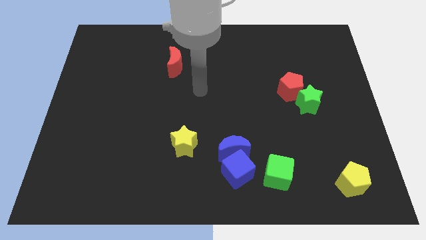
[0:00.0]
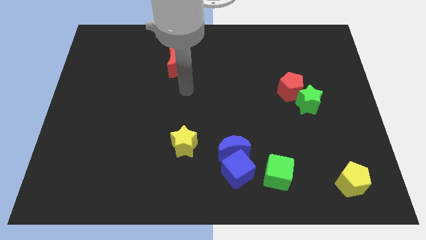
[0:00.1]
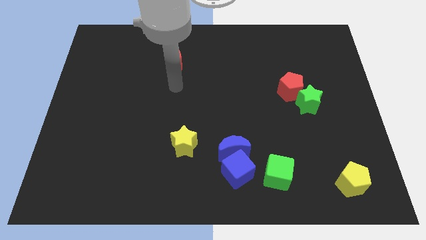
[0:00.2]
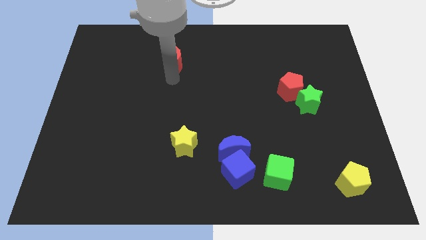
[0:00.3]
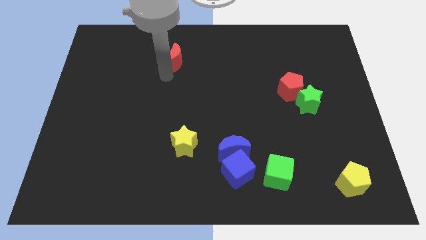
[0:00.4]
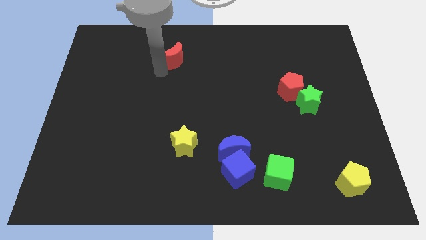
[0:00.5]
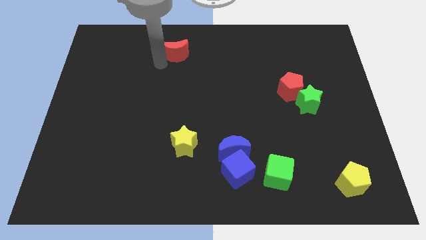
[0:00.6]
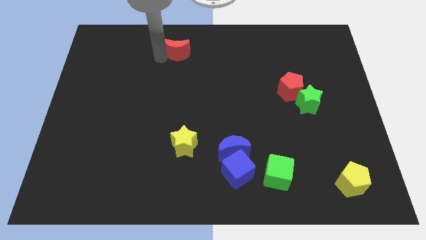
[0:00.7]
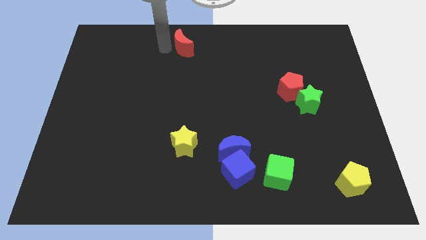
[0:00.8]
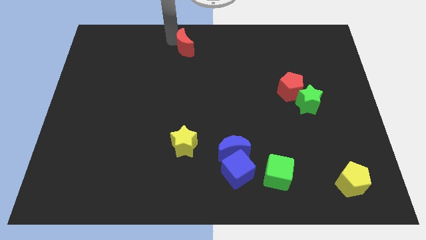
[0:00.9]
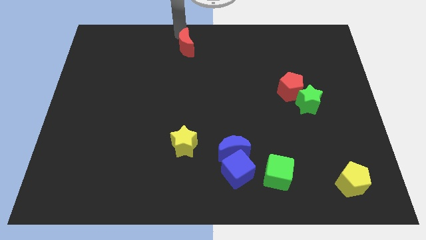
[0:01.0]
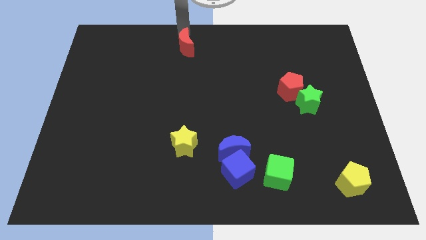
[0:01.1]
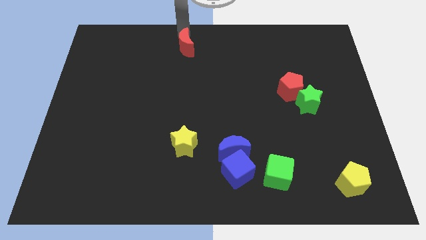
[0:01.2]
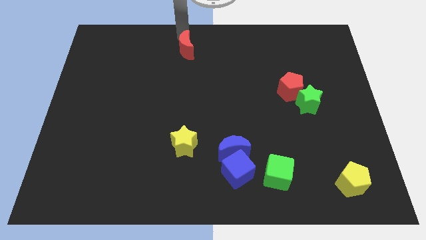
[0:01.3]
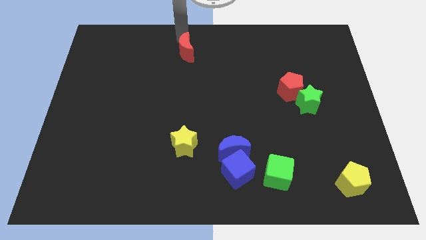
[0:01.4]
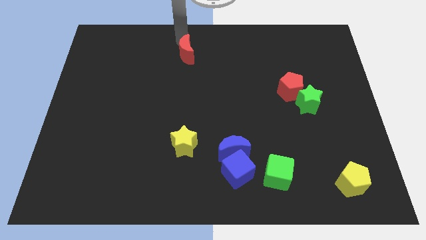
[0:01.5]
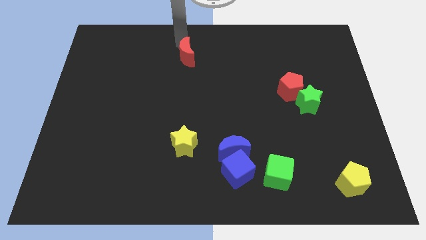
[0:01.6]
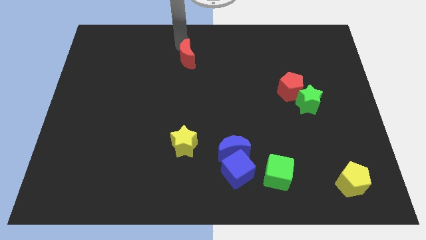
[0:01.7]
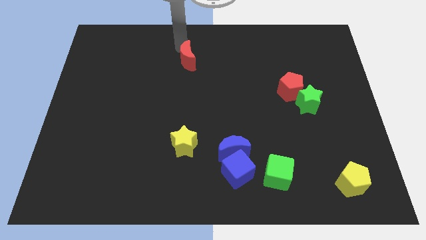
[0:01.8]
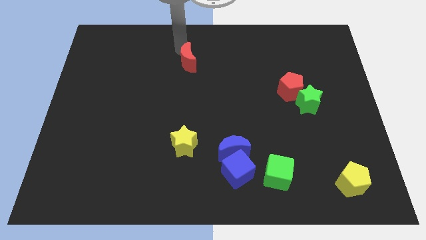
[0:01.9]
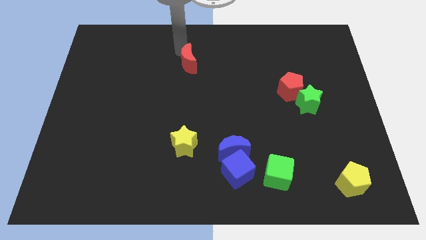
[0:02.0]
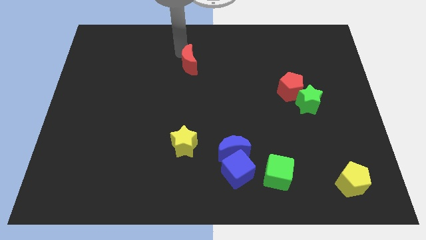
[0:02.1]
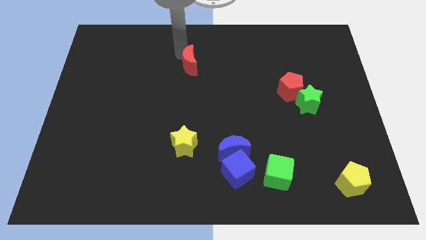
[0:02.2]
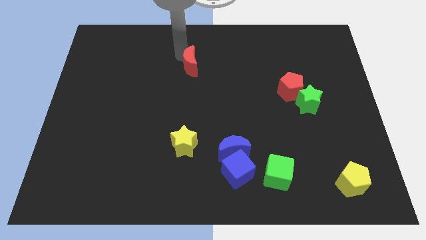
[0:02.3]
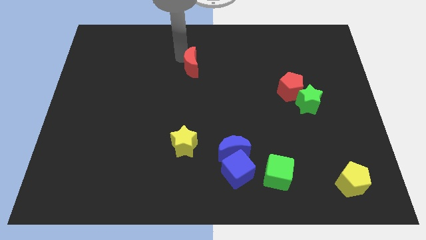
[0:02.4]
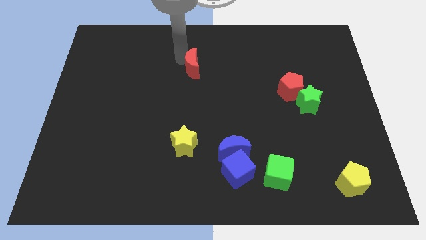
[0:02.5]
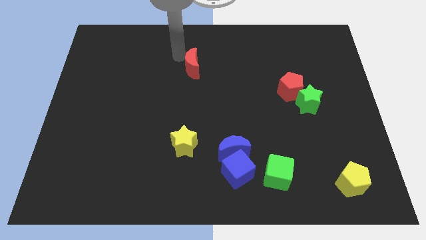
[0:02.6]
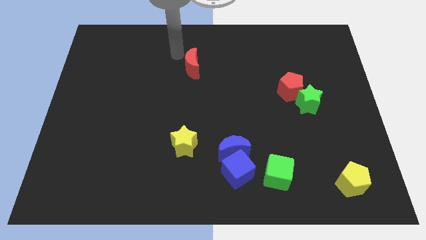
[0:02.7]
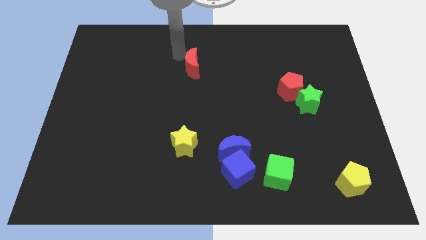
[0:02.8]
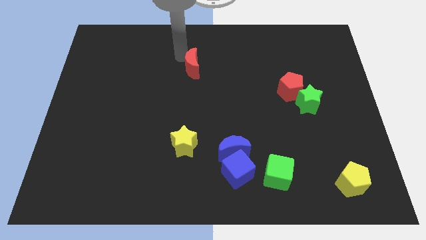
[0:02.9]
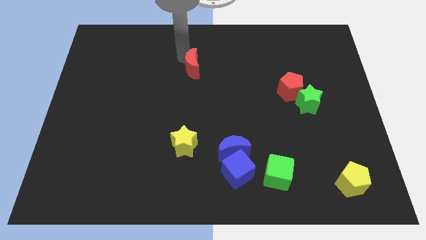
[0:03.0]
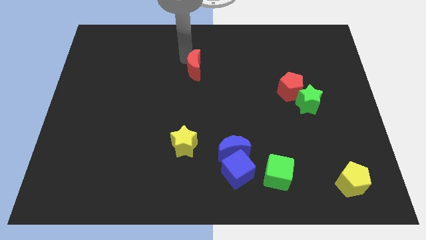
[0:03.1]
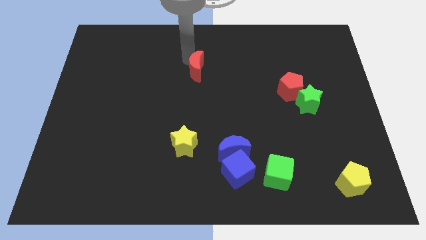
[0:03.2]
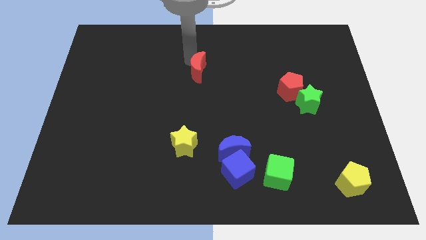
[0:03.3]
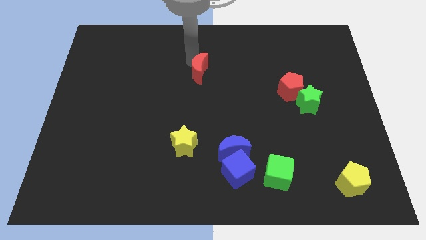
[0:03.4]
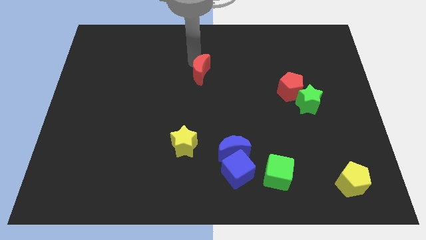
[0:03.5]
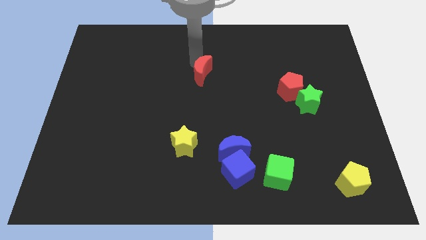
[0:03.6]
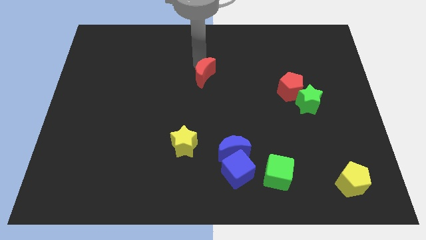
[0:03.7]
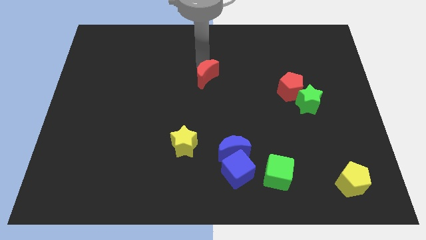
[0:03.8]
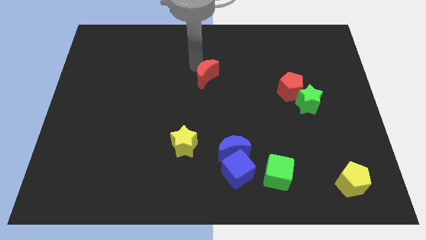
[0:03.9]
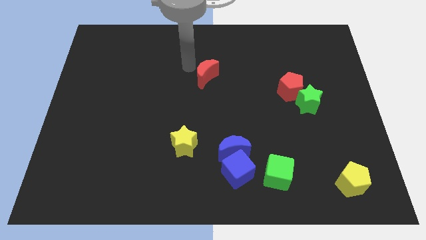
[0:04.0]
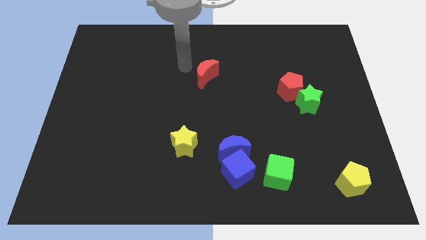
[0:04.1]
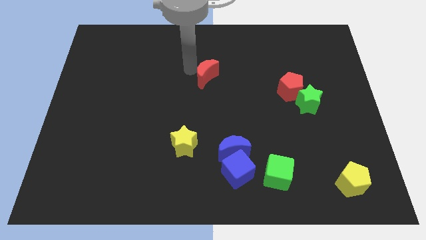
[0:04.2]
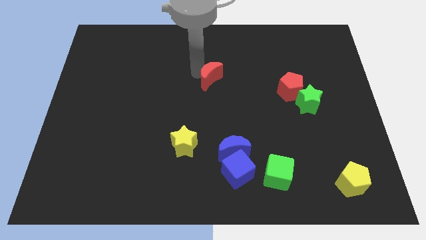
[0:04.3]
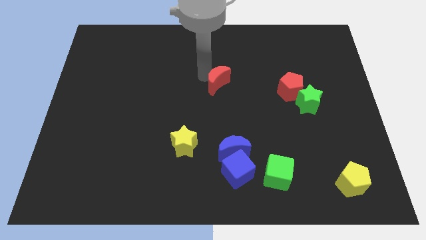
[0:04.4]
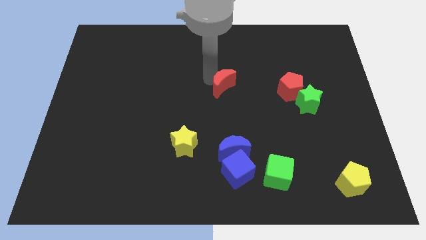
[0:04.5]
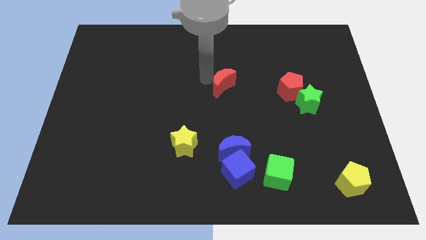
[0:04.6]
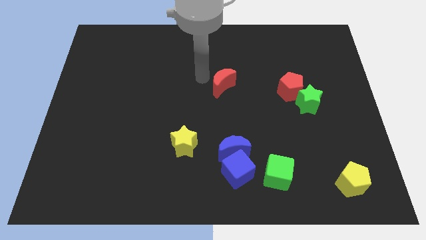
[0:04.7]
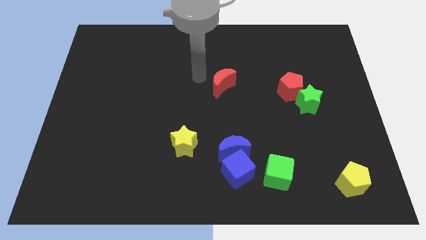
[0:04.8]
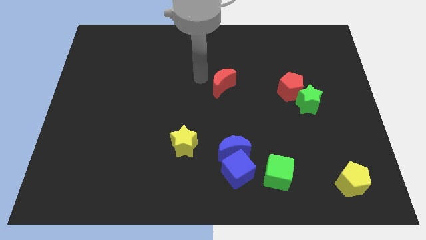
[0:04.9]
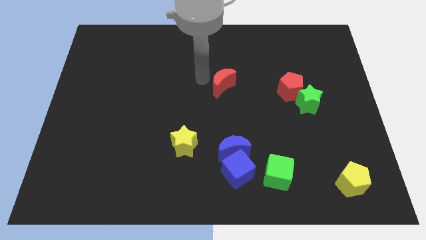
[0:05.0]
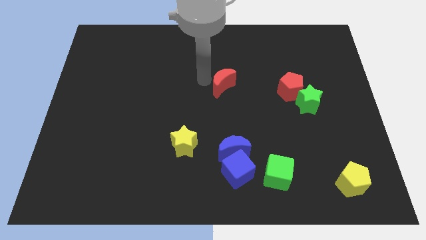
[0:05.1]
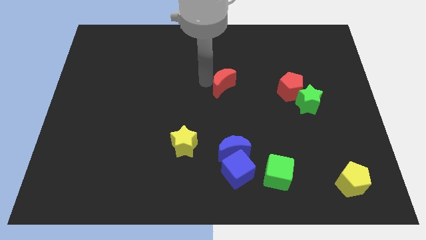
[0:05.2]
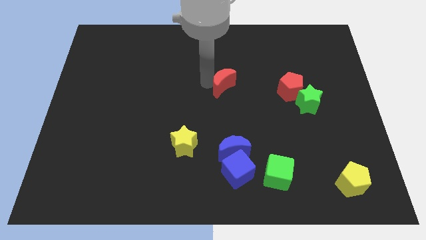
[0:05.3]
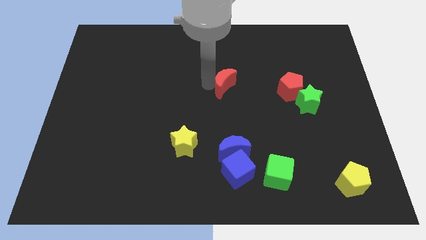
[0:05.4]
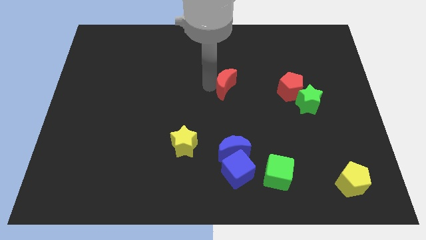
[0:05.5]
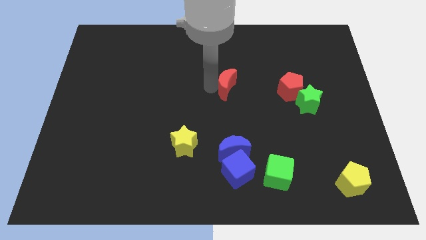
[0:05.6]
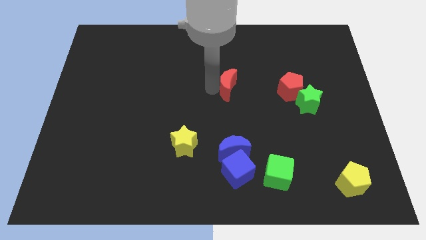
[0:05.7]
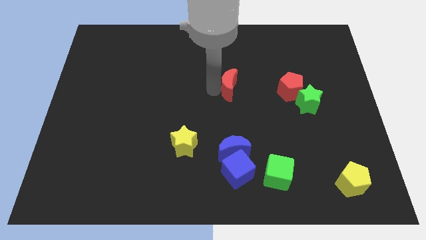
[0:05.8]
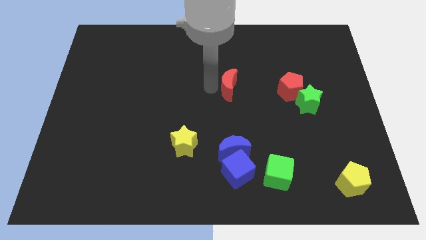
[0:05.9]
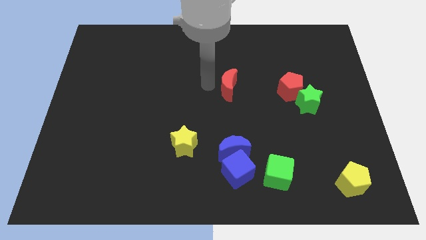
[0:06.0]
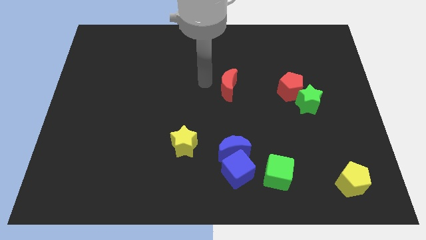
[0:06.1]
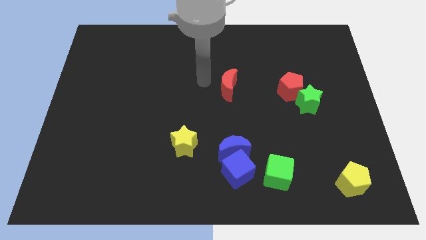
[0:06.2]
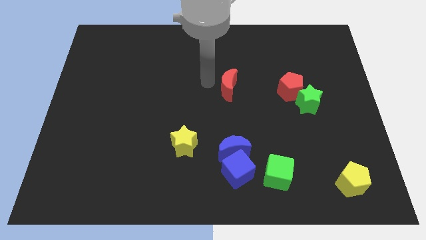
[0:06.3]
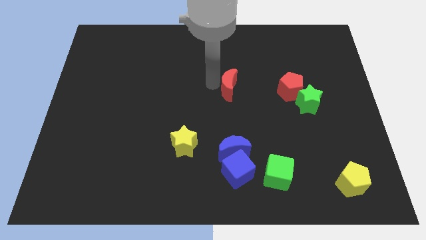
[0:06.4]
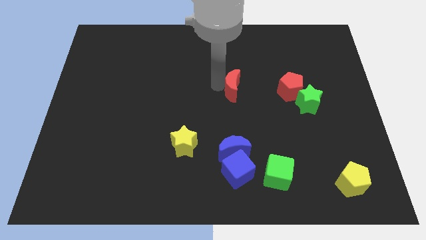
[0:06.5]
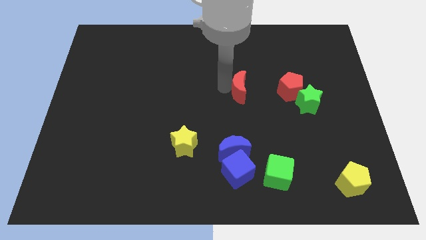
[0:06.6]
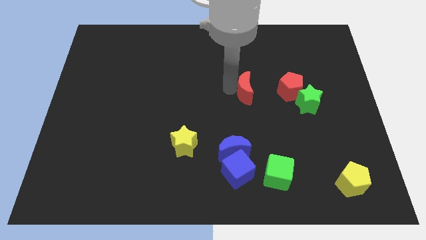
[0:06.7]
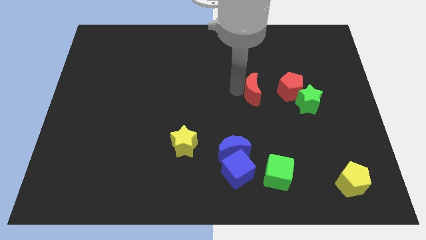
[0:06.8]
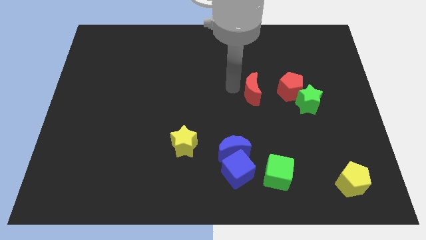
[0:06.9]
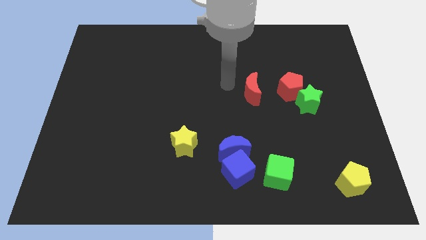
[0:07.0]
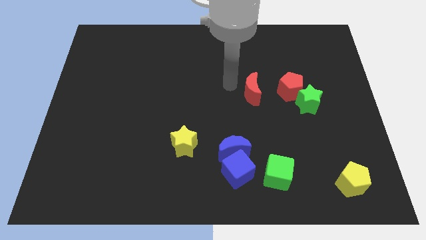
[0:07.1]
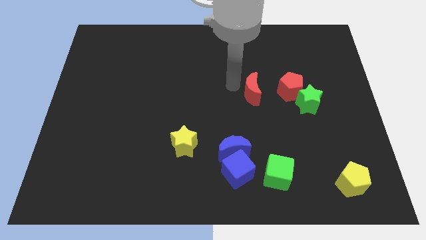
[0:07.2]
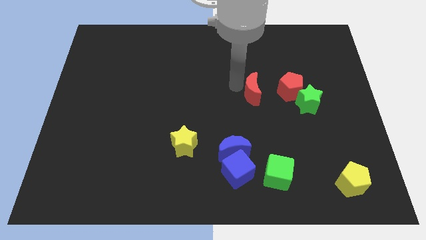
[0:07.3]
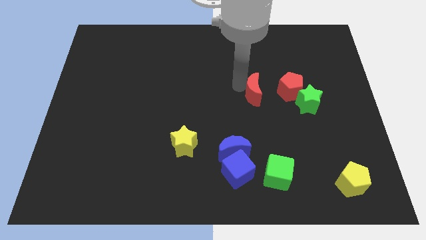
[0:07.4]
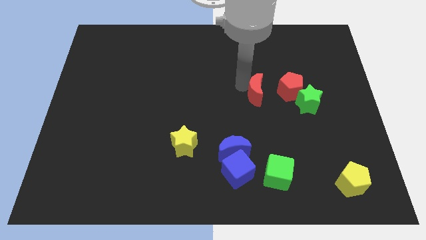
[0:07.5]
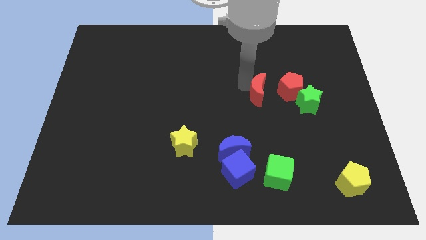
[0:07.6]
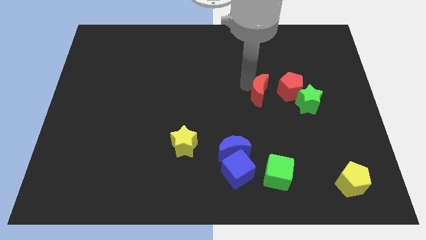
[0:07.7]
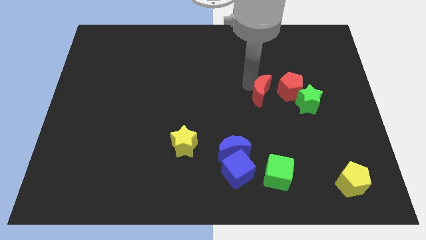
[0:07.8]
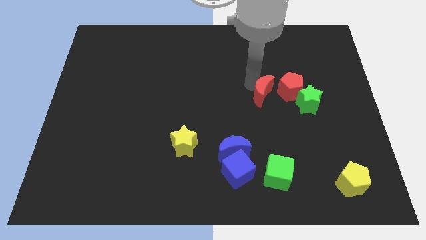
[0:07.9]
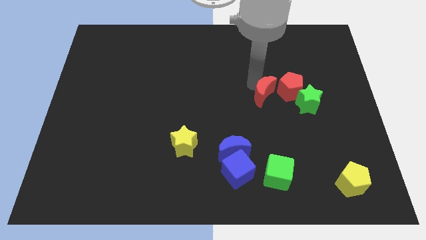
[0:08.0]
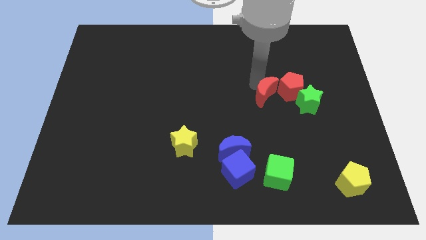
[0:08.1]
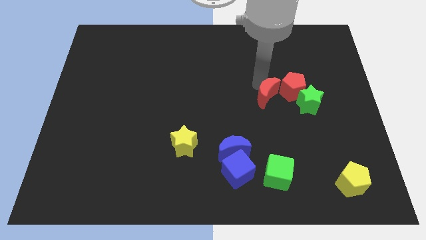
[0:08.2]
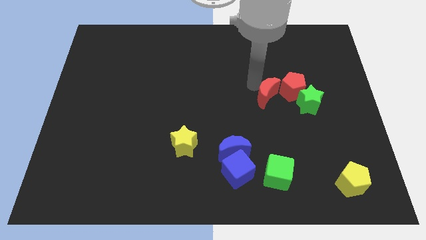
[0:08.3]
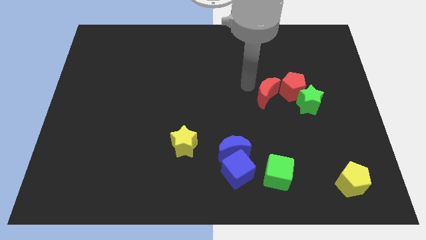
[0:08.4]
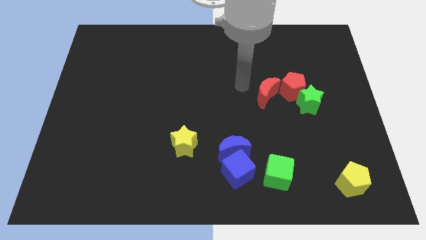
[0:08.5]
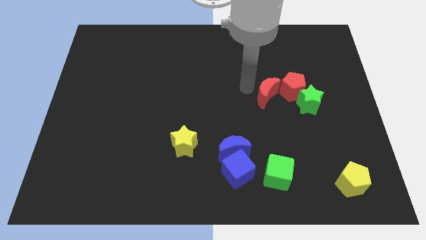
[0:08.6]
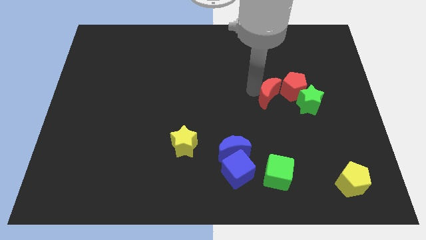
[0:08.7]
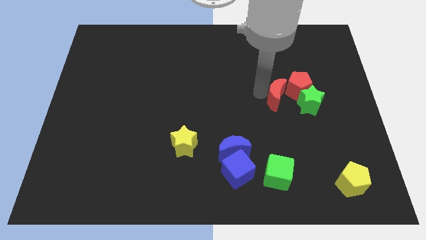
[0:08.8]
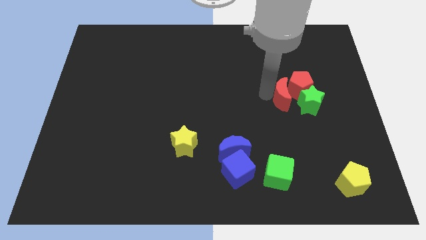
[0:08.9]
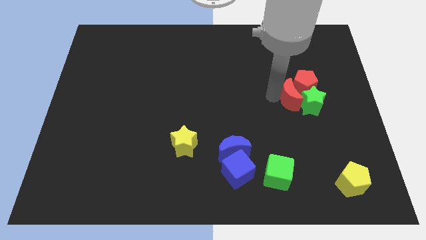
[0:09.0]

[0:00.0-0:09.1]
move the red moon close to the green star
